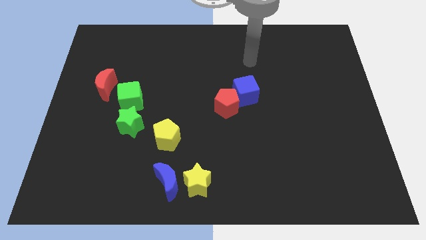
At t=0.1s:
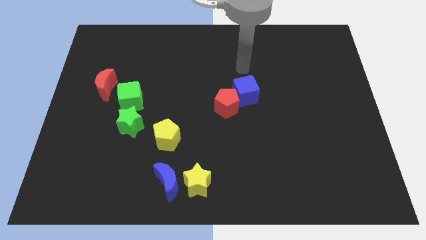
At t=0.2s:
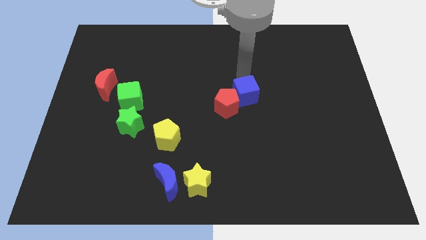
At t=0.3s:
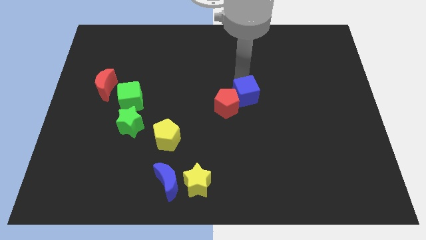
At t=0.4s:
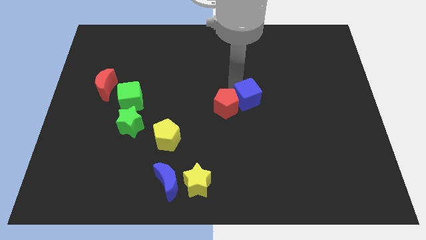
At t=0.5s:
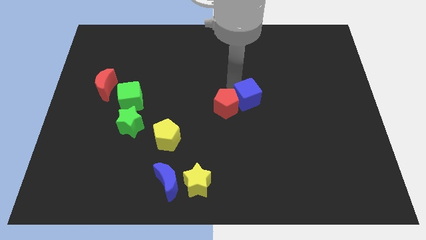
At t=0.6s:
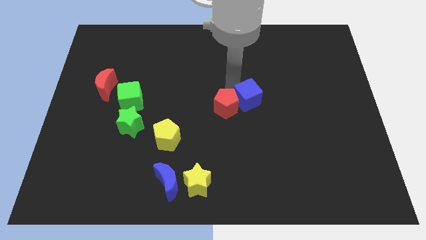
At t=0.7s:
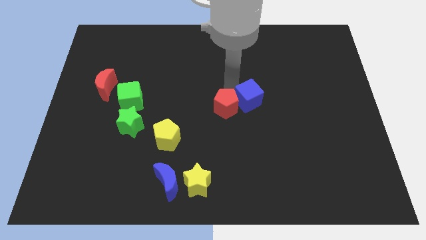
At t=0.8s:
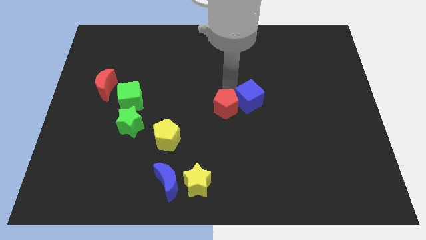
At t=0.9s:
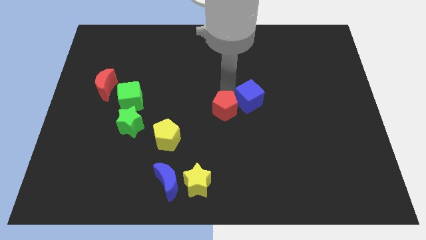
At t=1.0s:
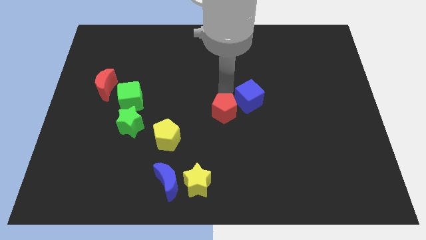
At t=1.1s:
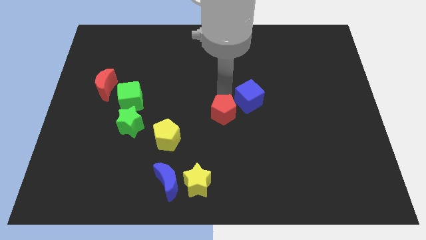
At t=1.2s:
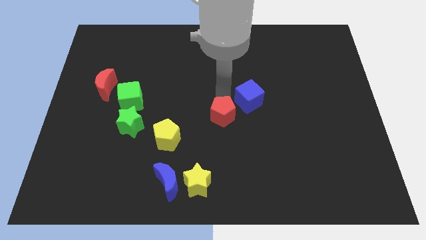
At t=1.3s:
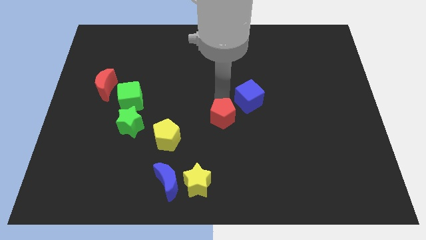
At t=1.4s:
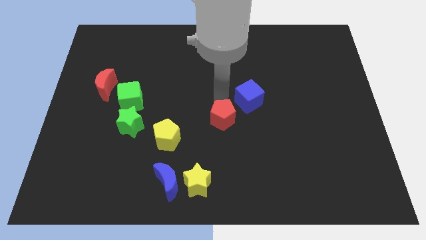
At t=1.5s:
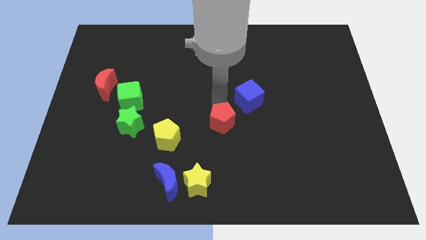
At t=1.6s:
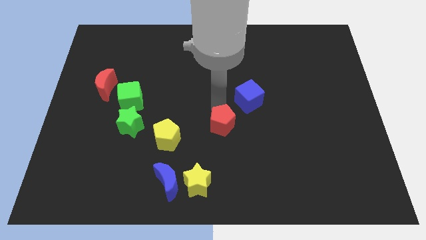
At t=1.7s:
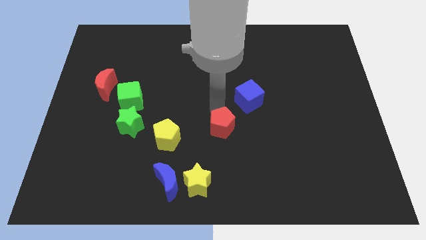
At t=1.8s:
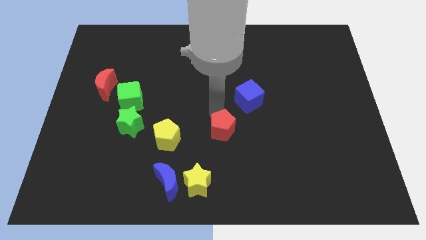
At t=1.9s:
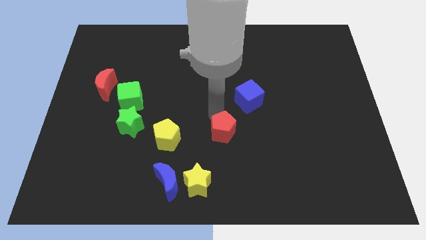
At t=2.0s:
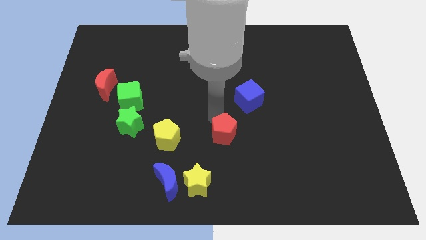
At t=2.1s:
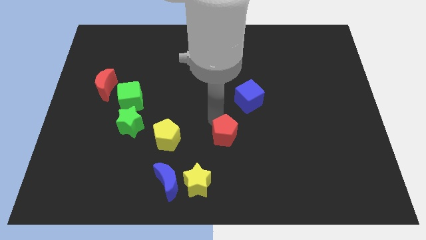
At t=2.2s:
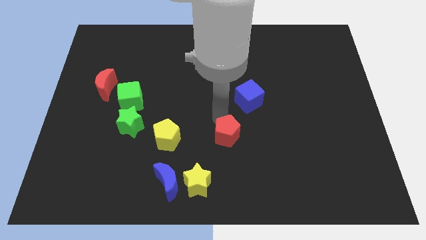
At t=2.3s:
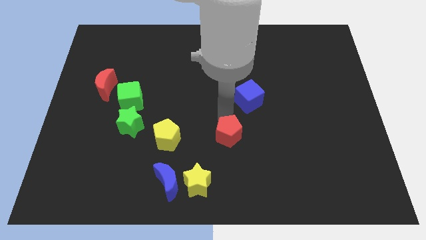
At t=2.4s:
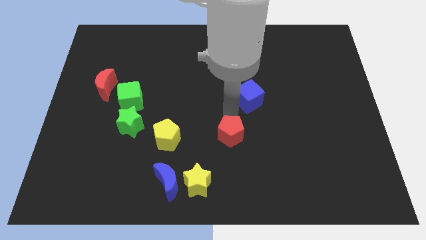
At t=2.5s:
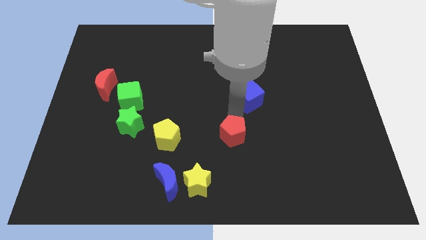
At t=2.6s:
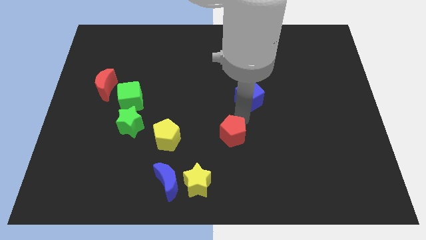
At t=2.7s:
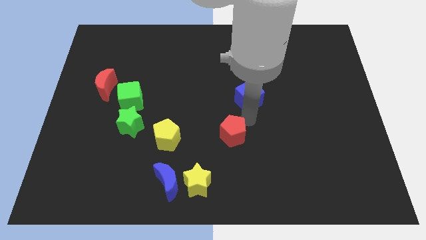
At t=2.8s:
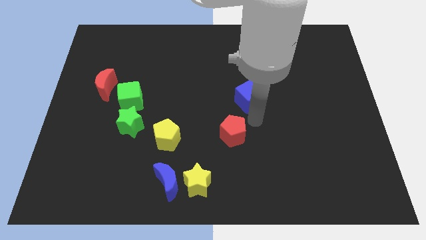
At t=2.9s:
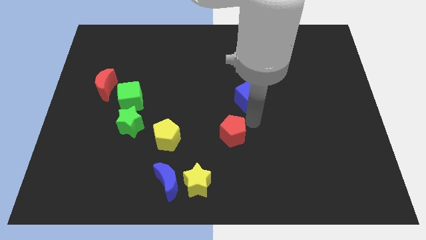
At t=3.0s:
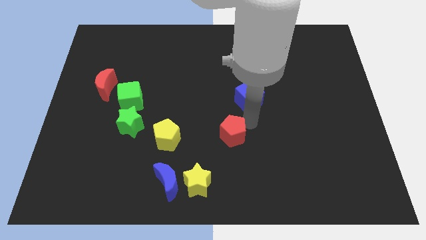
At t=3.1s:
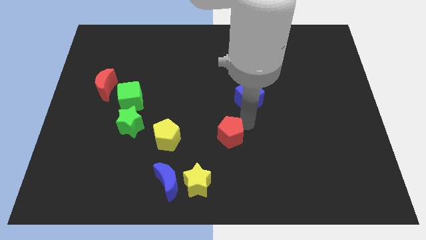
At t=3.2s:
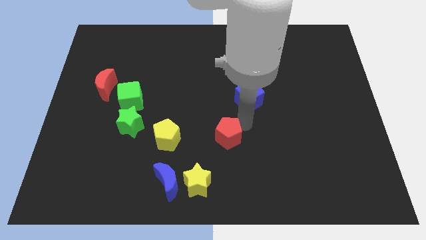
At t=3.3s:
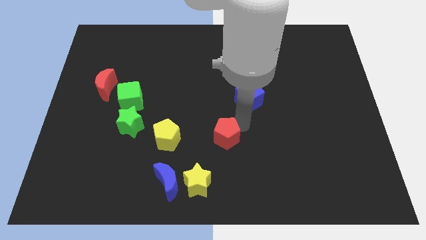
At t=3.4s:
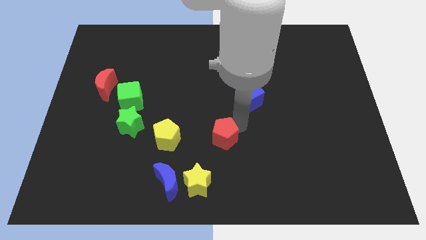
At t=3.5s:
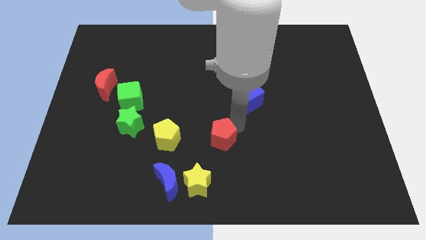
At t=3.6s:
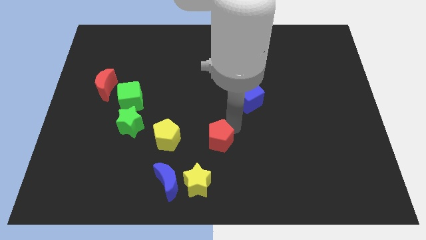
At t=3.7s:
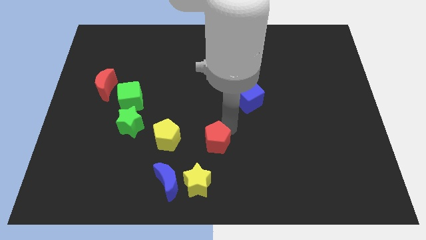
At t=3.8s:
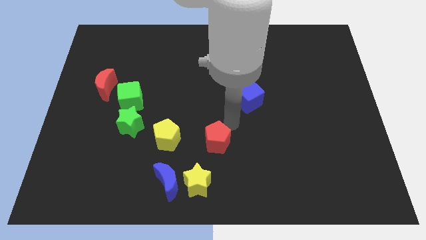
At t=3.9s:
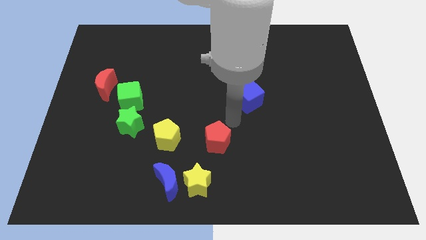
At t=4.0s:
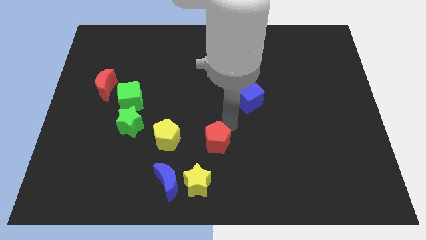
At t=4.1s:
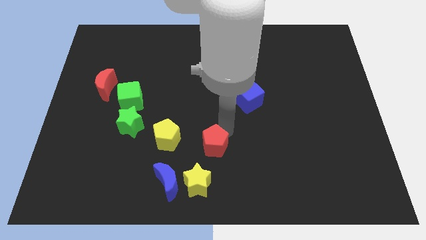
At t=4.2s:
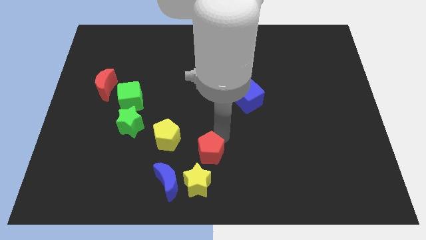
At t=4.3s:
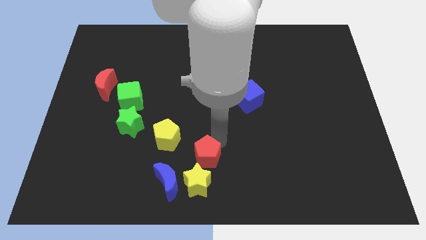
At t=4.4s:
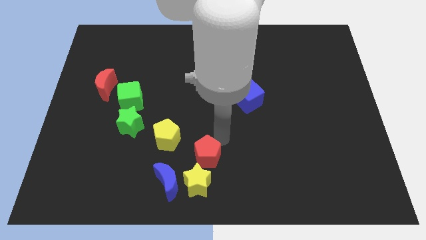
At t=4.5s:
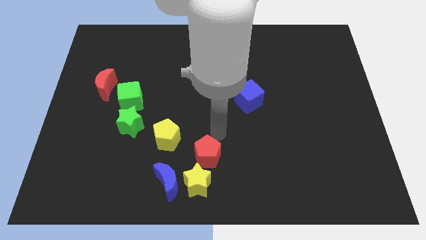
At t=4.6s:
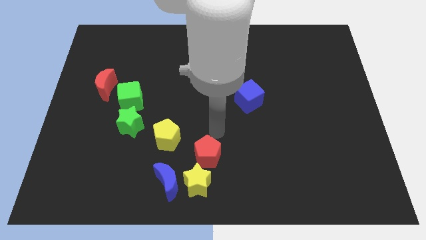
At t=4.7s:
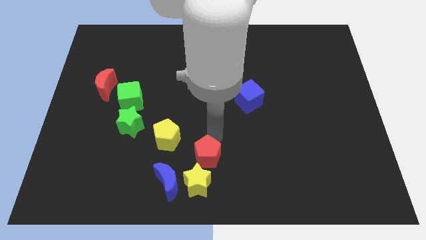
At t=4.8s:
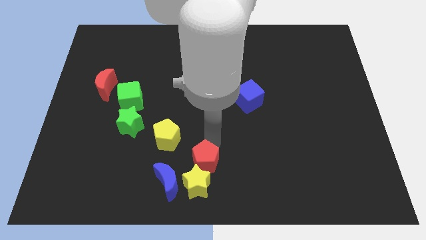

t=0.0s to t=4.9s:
move the red pentagon close to the yellow star

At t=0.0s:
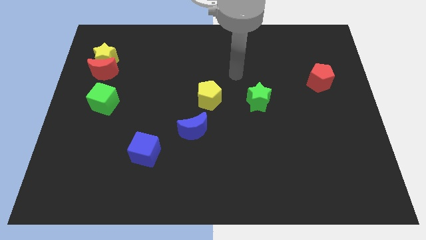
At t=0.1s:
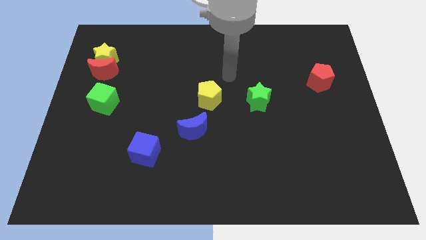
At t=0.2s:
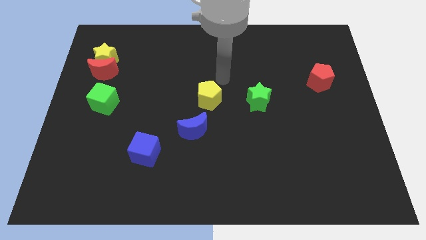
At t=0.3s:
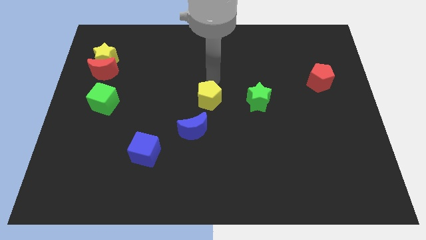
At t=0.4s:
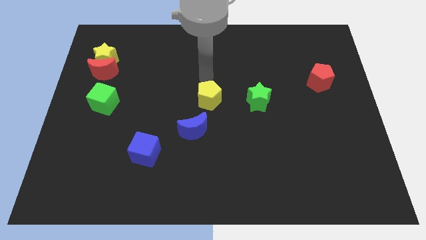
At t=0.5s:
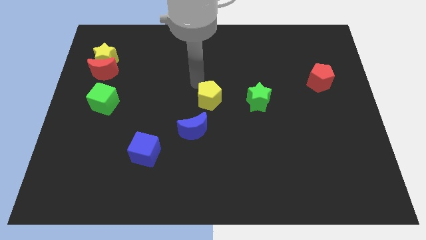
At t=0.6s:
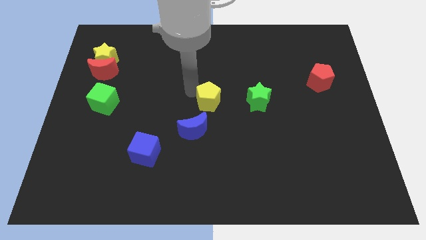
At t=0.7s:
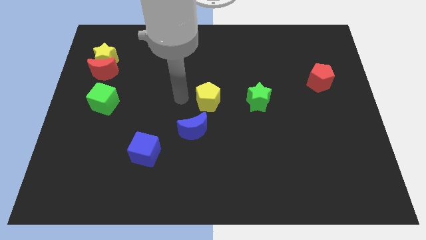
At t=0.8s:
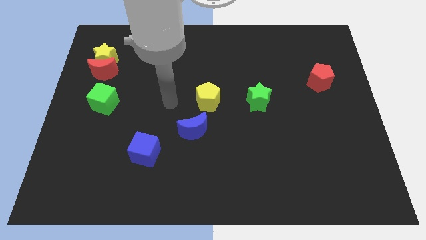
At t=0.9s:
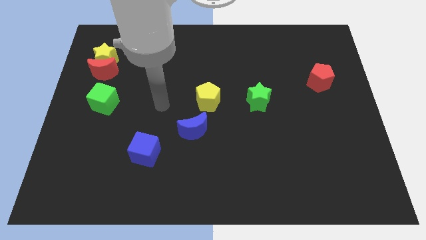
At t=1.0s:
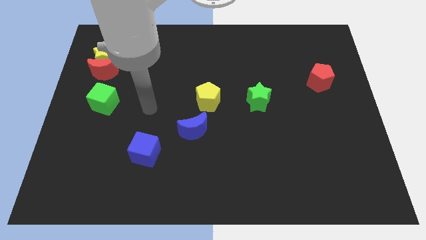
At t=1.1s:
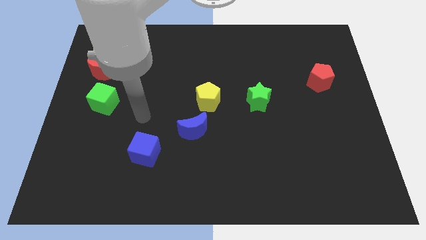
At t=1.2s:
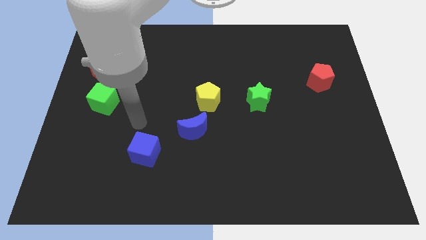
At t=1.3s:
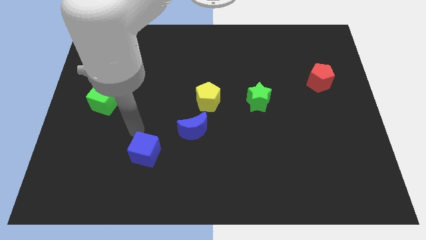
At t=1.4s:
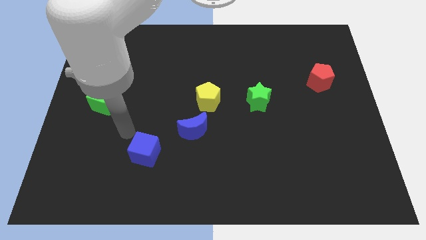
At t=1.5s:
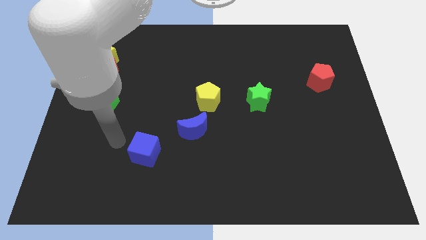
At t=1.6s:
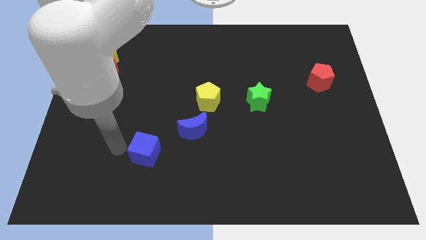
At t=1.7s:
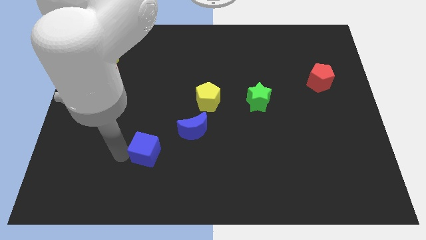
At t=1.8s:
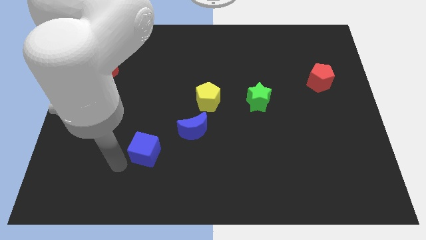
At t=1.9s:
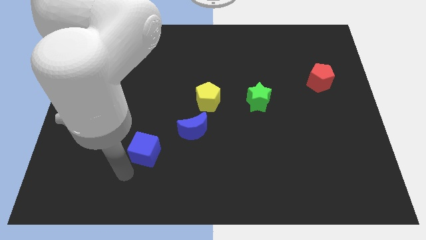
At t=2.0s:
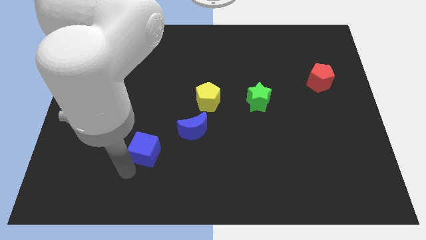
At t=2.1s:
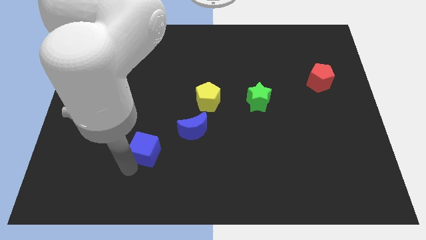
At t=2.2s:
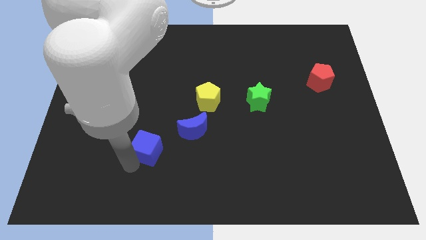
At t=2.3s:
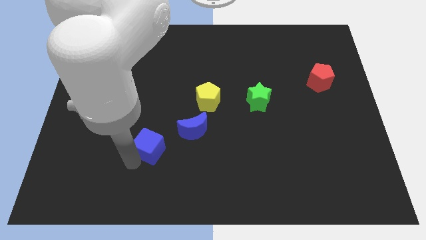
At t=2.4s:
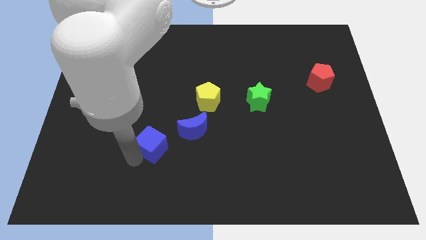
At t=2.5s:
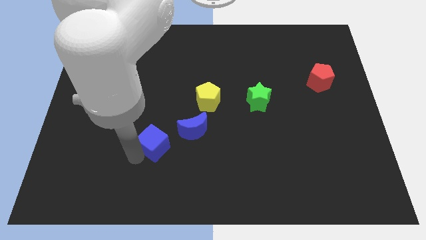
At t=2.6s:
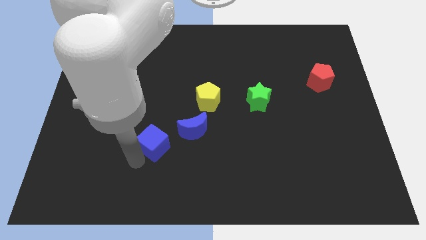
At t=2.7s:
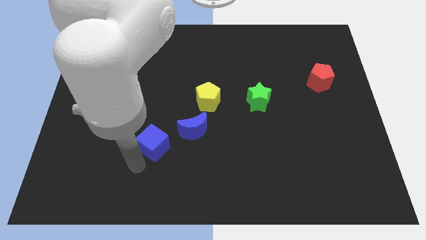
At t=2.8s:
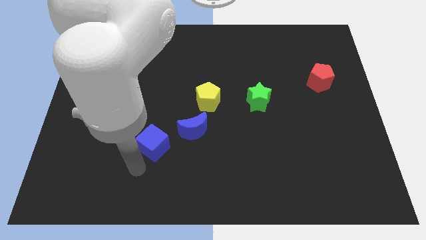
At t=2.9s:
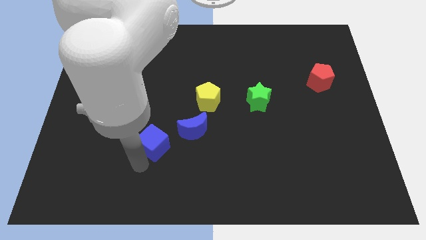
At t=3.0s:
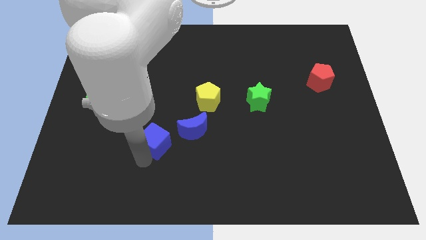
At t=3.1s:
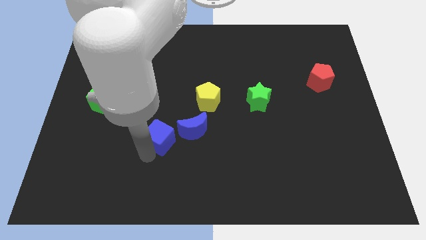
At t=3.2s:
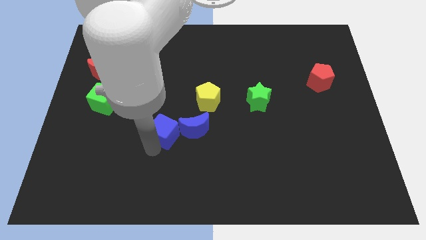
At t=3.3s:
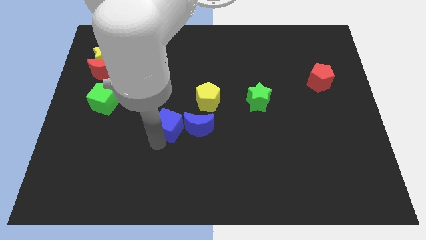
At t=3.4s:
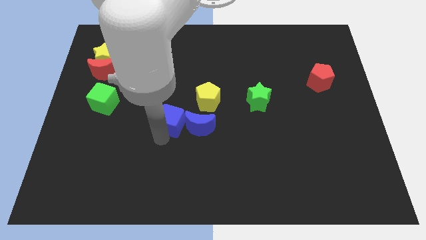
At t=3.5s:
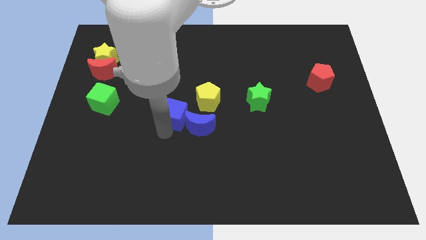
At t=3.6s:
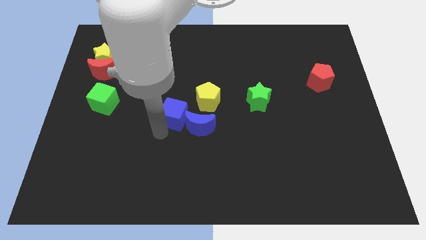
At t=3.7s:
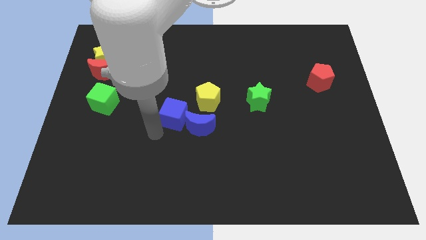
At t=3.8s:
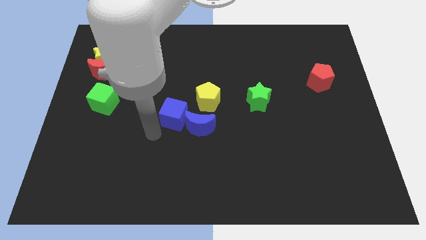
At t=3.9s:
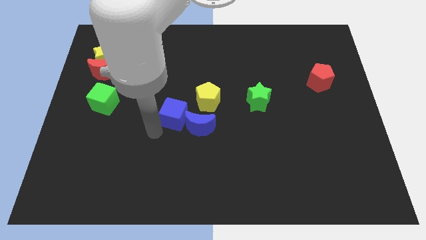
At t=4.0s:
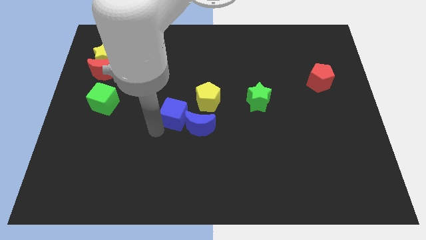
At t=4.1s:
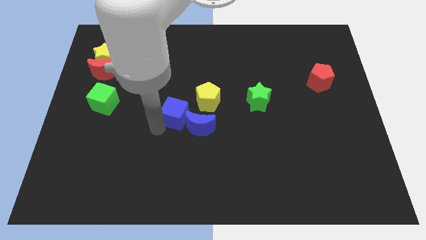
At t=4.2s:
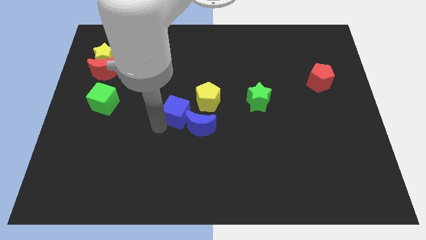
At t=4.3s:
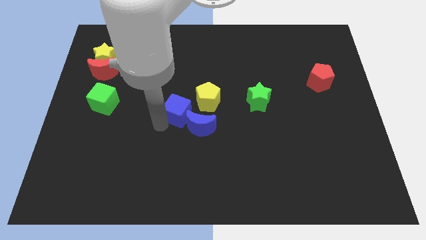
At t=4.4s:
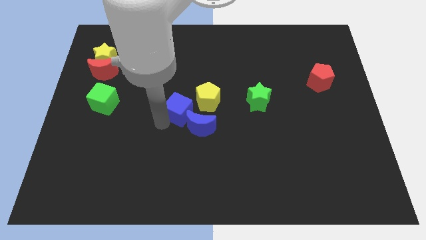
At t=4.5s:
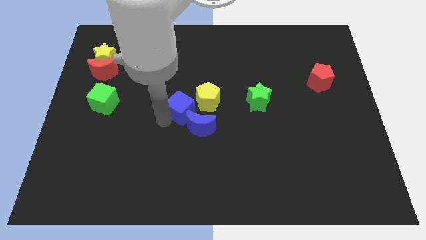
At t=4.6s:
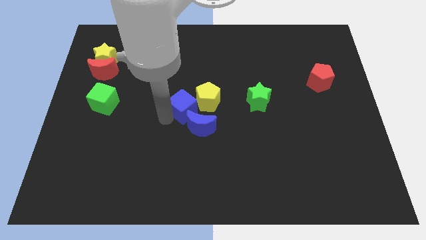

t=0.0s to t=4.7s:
move the blue cube to the yellow pentagon
